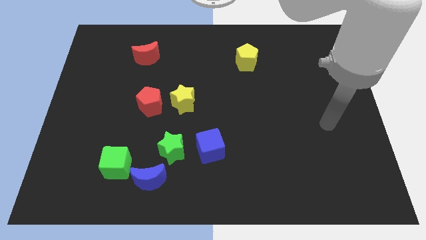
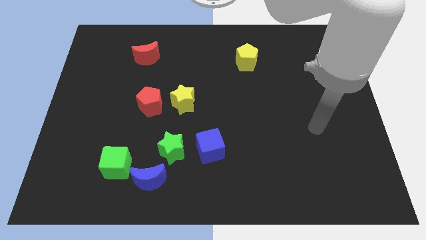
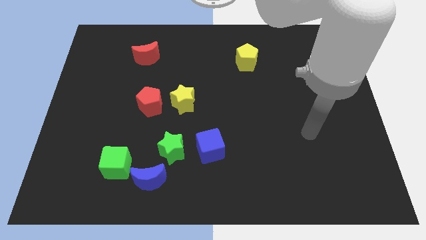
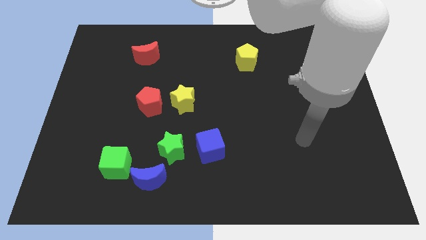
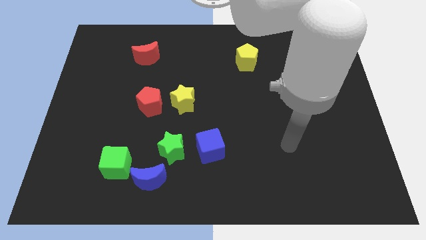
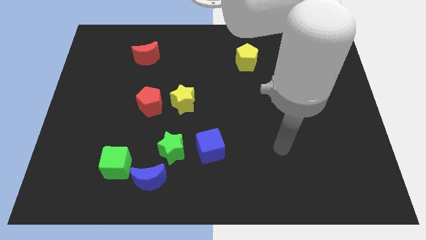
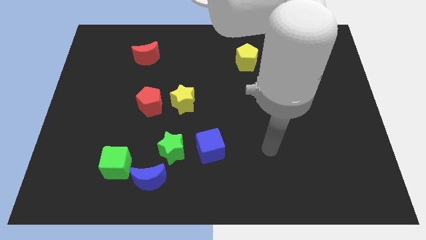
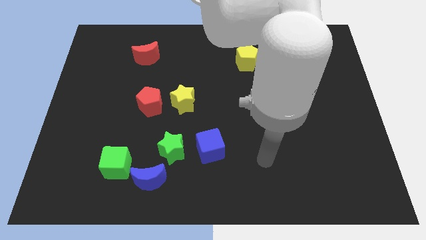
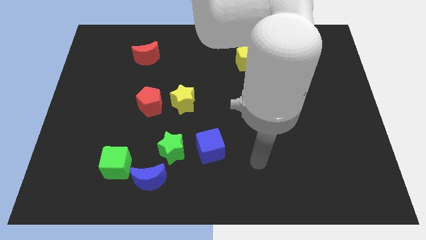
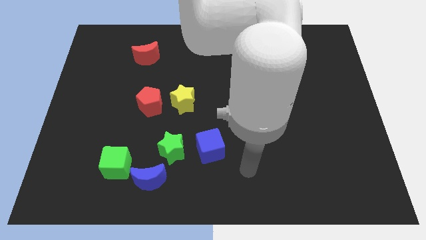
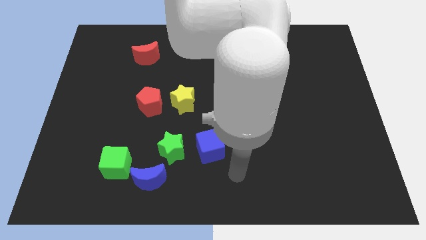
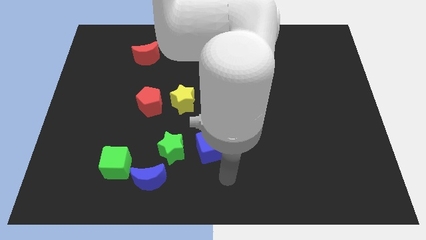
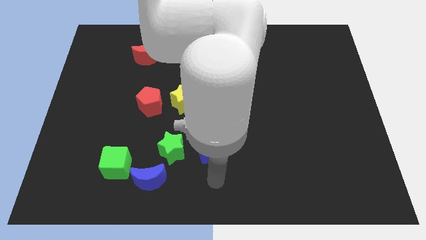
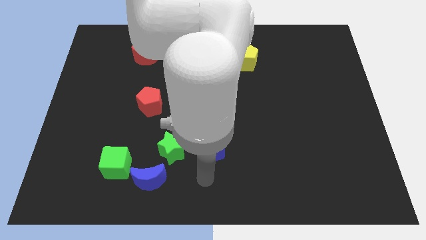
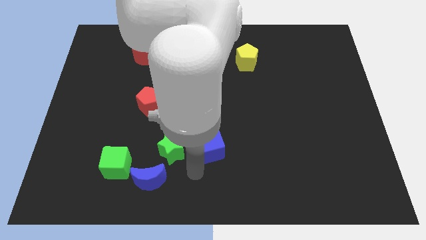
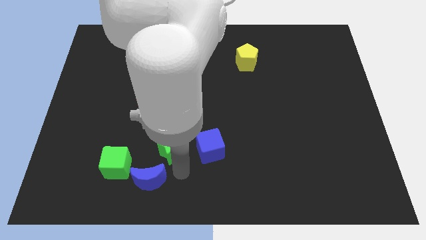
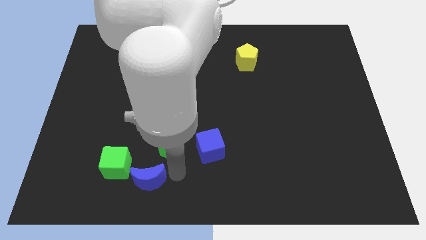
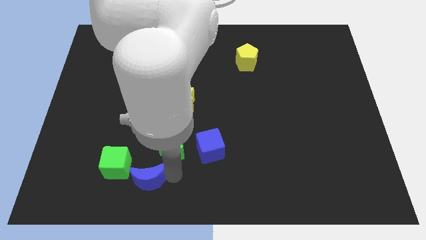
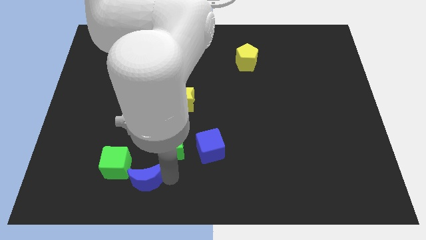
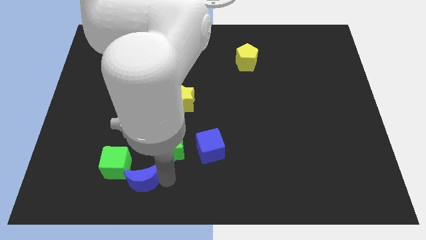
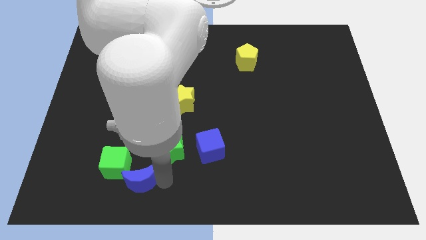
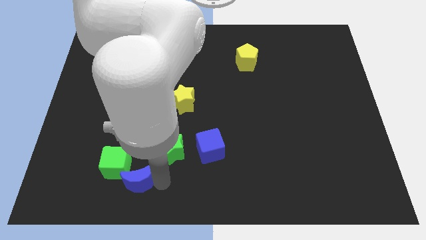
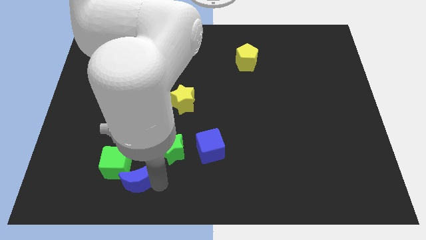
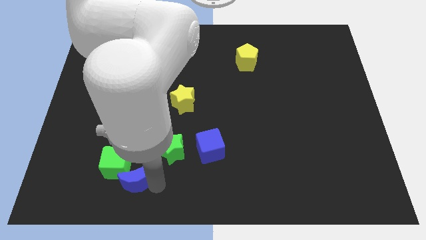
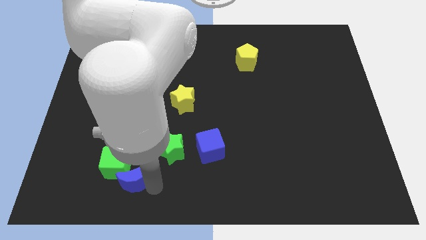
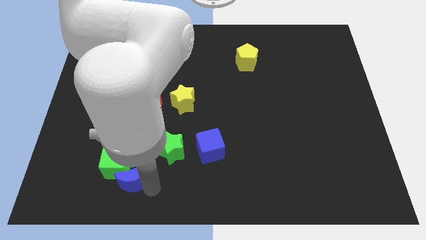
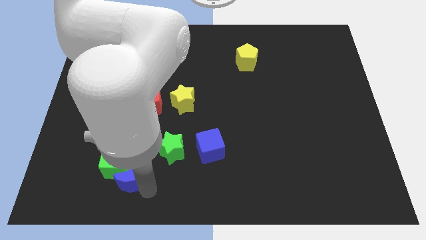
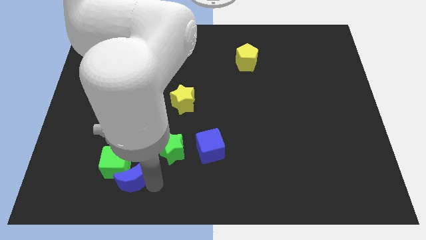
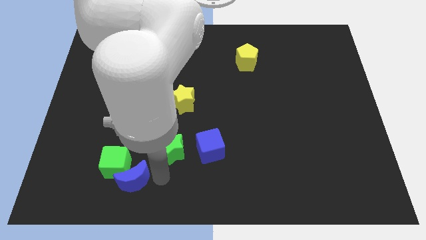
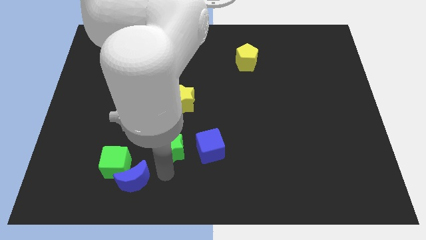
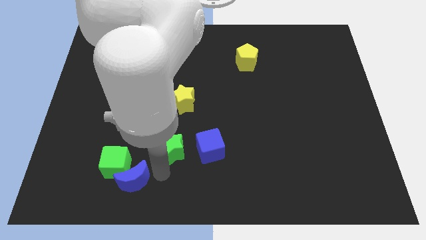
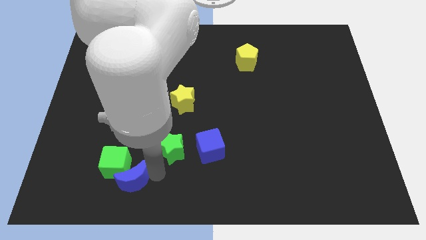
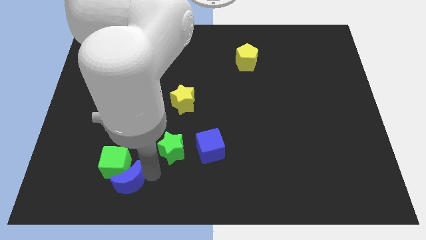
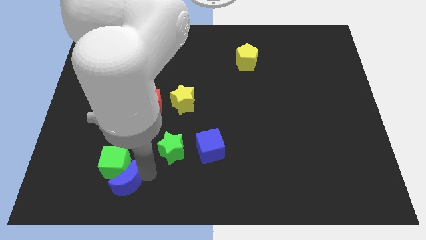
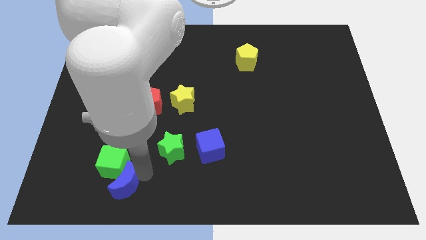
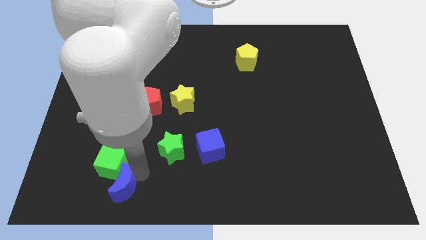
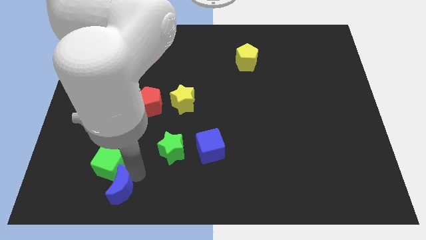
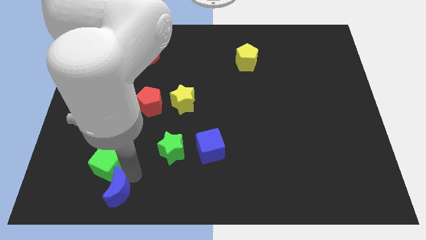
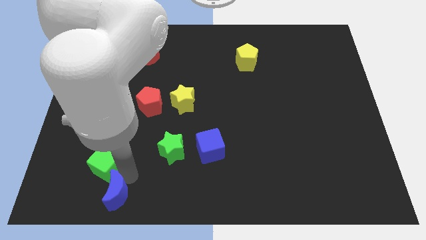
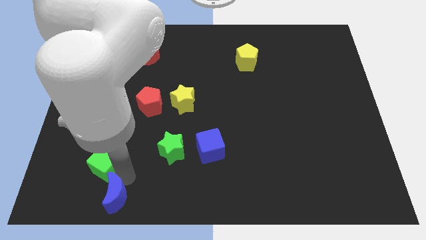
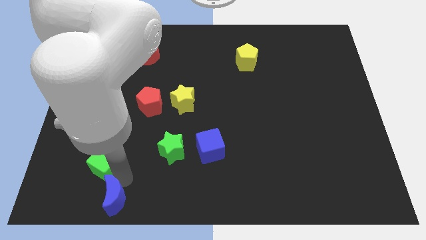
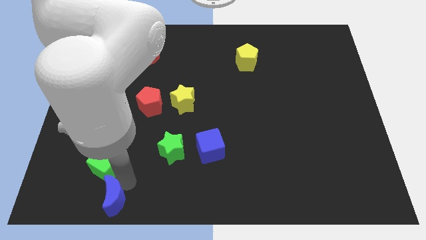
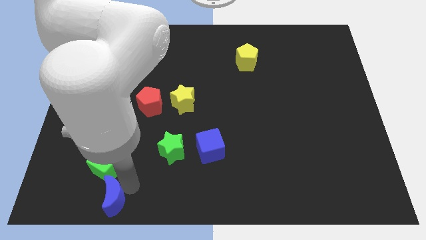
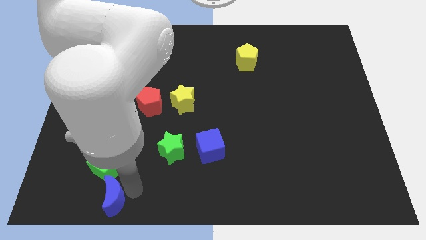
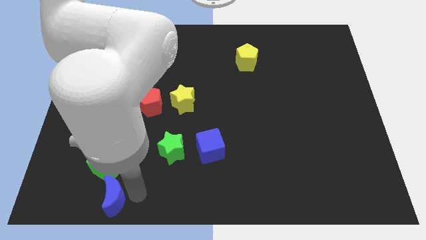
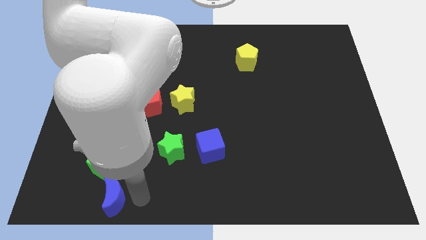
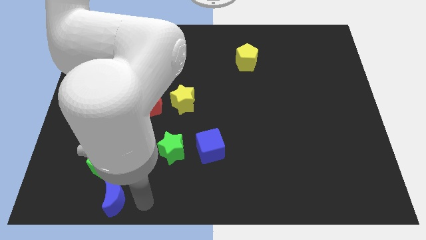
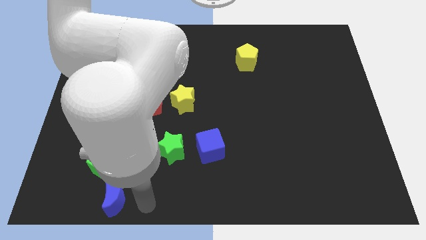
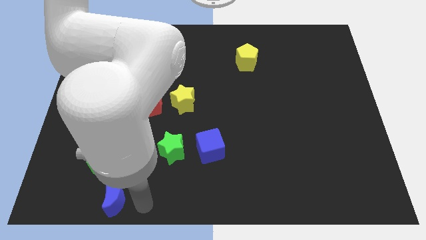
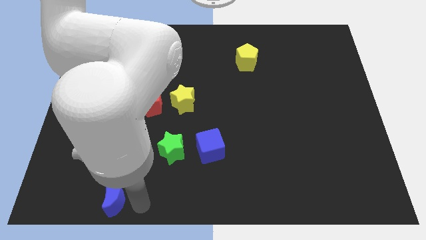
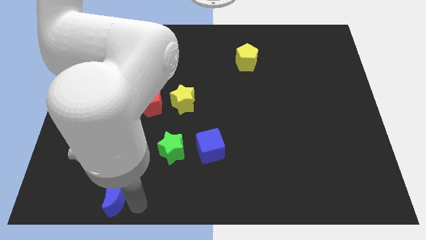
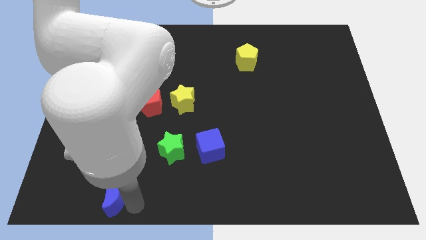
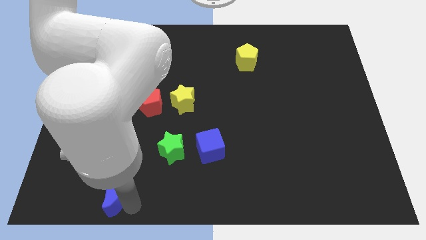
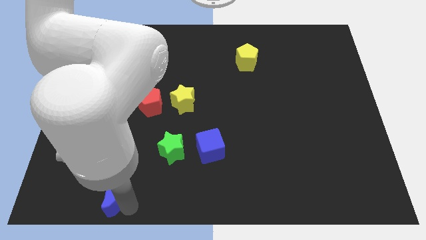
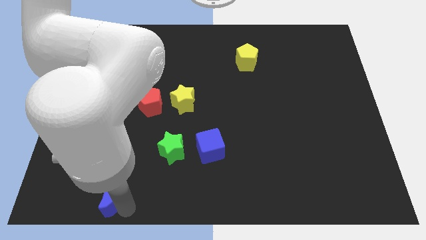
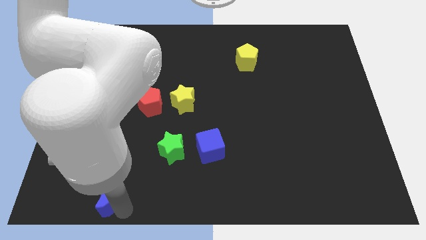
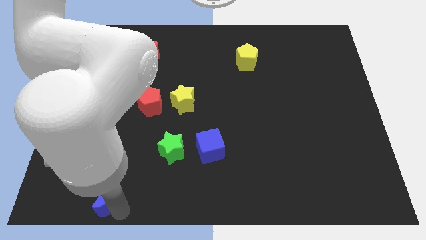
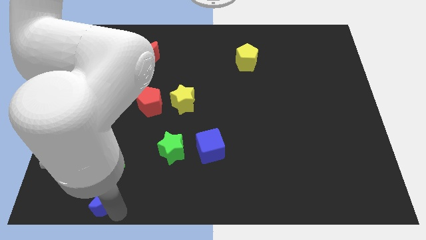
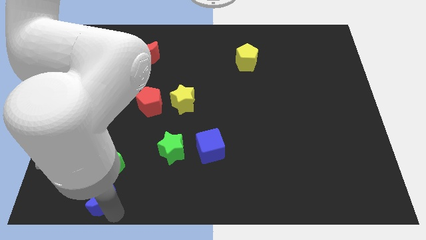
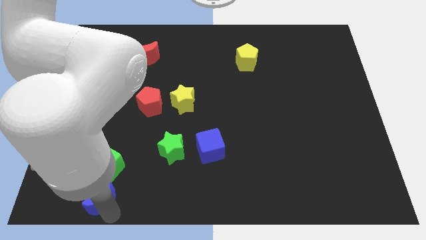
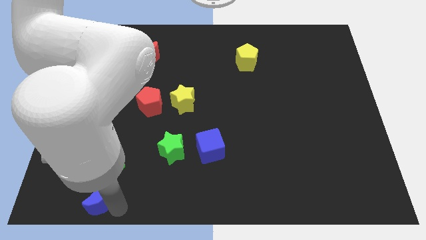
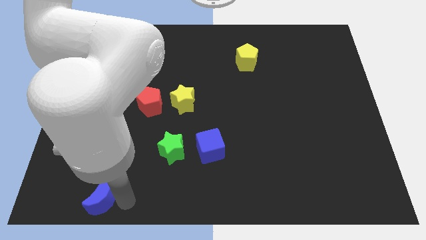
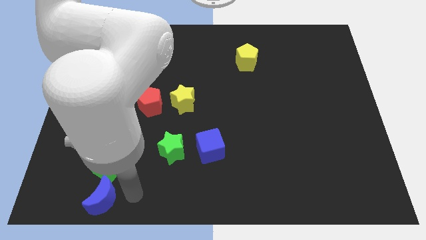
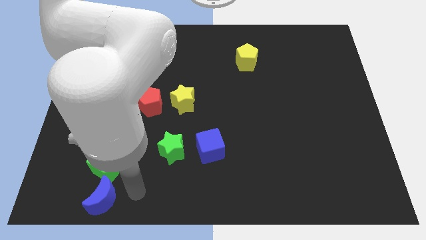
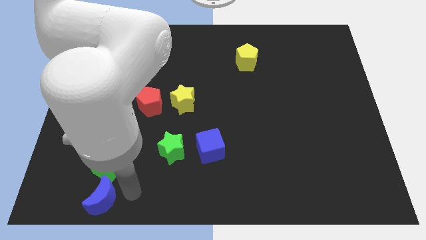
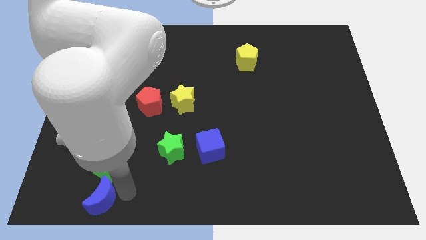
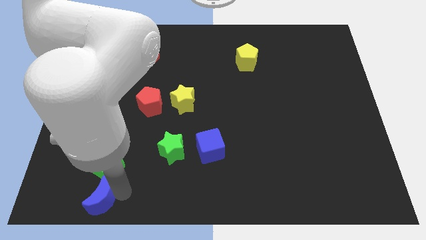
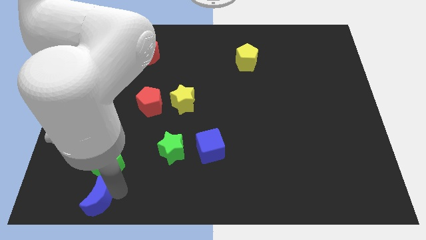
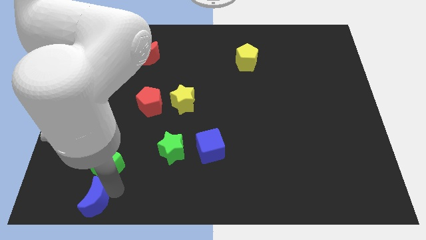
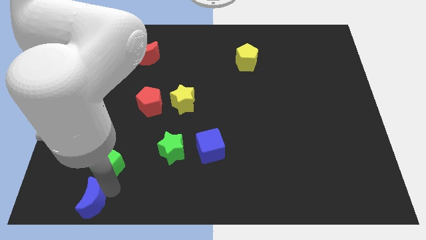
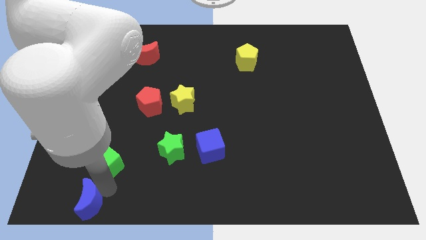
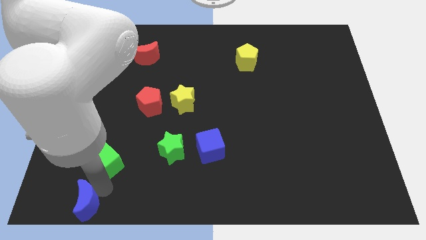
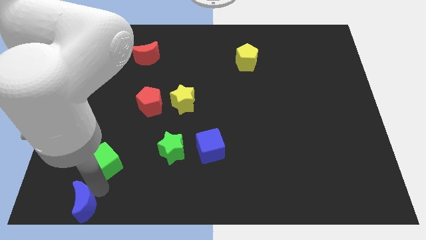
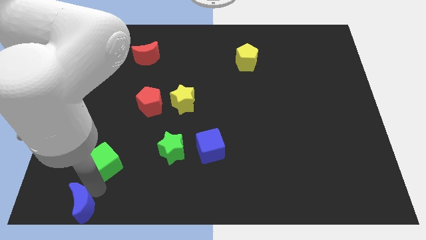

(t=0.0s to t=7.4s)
put the blue moon to the lower left corner

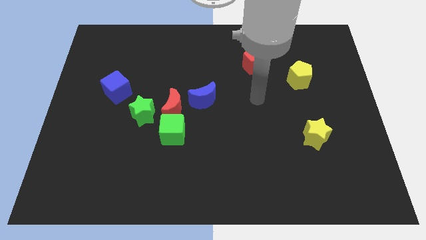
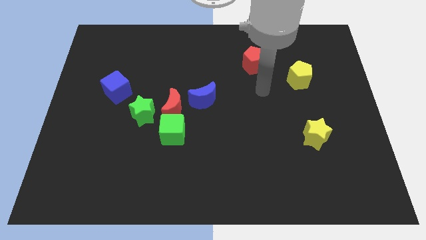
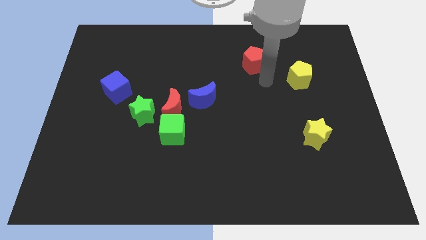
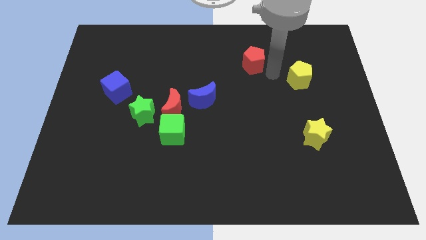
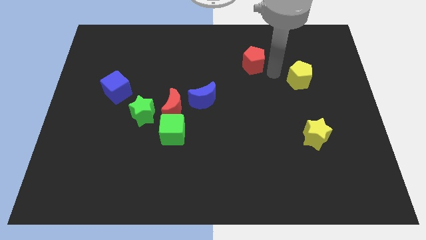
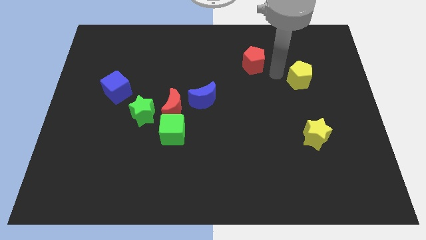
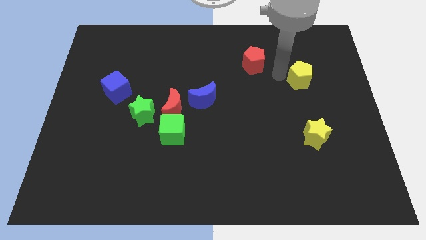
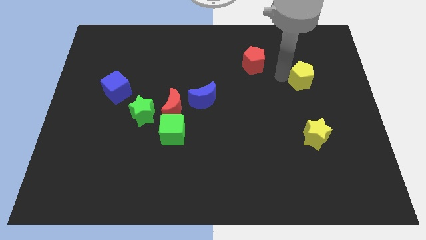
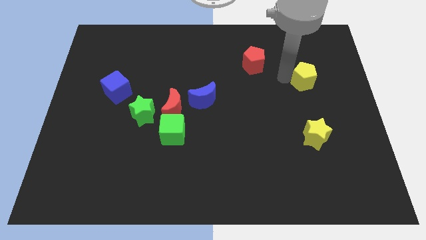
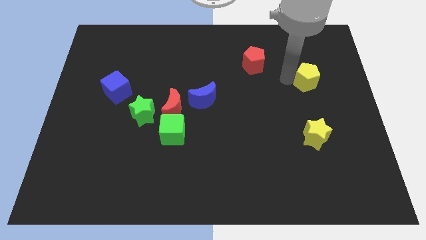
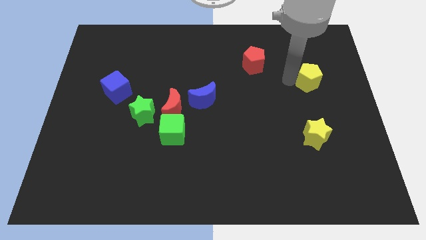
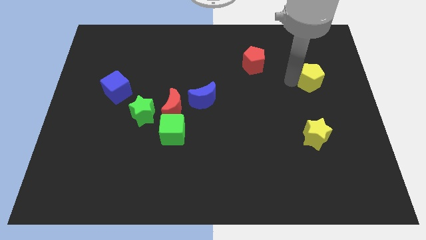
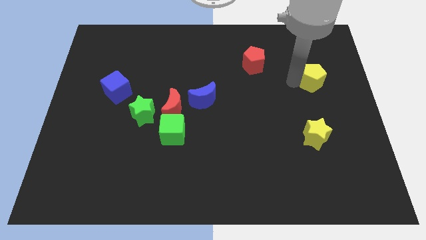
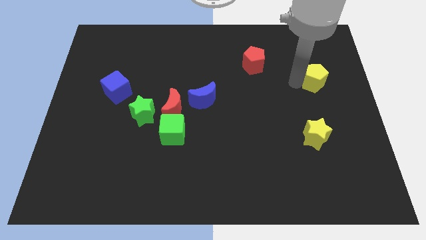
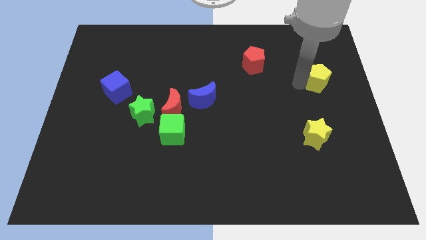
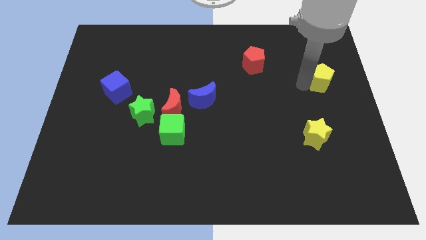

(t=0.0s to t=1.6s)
push the yellow pentagon to the right side of the board
